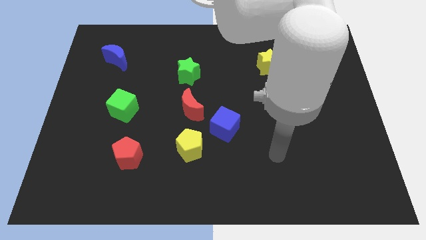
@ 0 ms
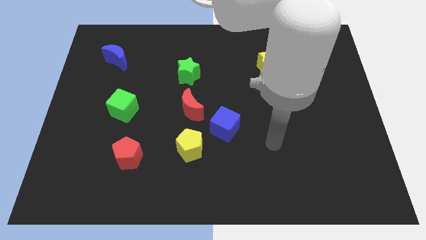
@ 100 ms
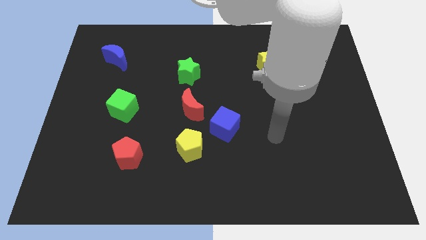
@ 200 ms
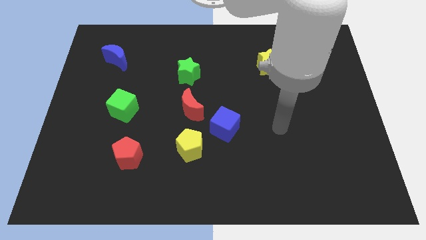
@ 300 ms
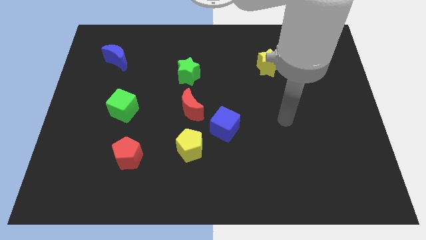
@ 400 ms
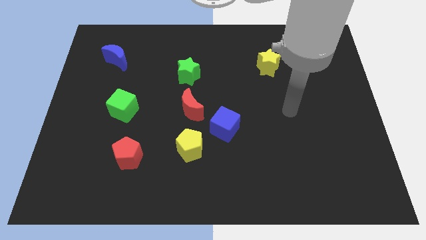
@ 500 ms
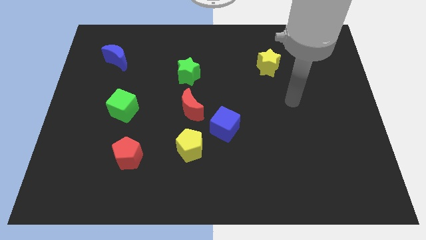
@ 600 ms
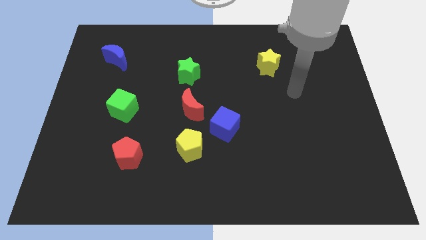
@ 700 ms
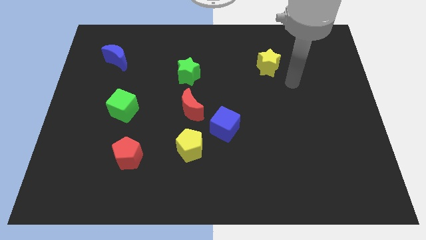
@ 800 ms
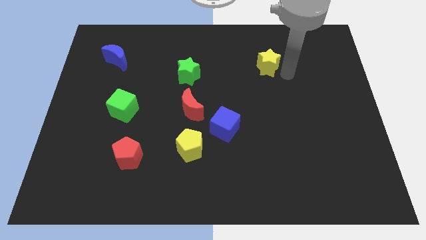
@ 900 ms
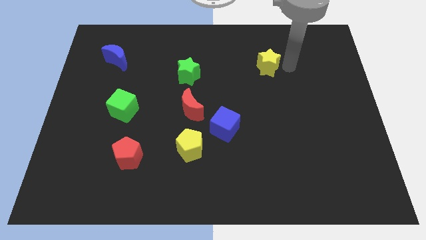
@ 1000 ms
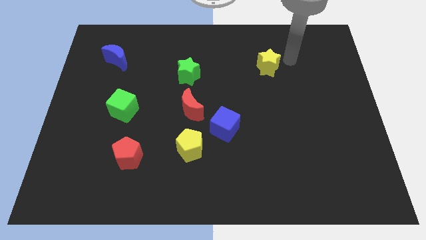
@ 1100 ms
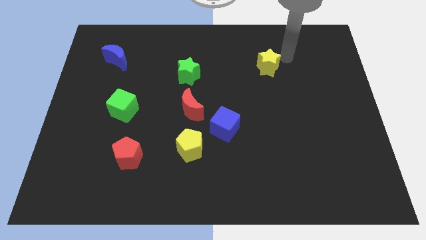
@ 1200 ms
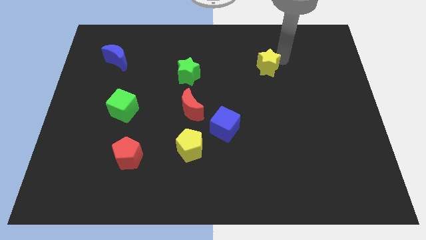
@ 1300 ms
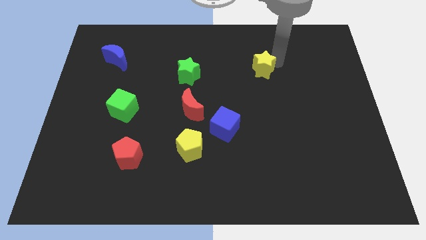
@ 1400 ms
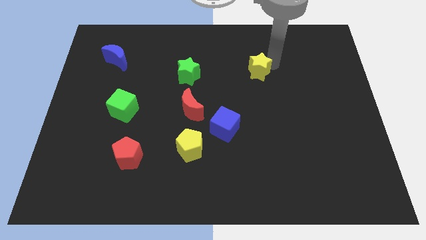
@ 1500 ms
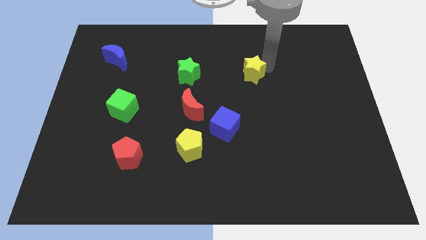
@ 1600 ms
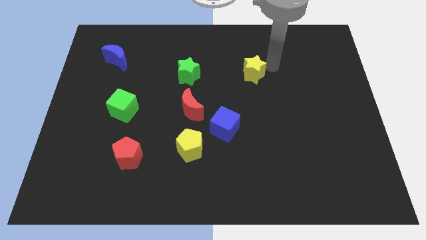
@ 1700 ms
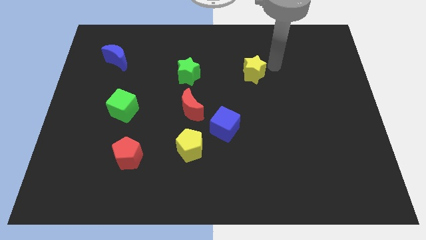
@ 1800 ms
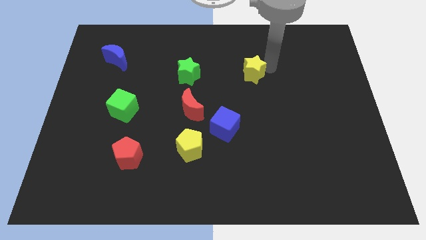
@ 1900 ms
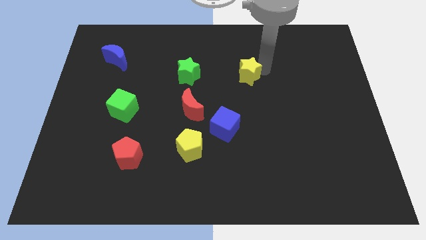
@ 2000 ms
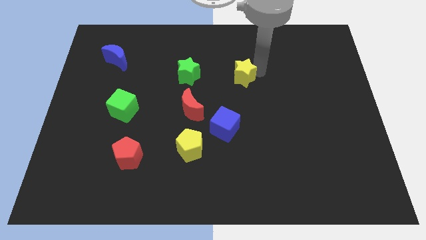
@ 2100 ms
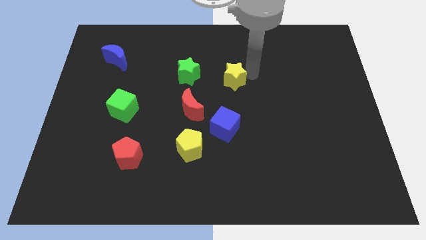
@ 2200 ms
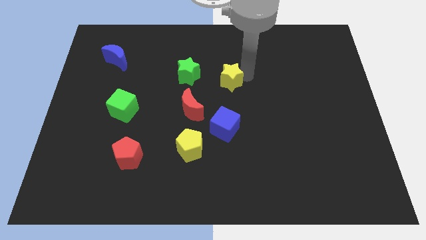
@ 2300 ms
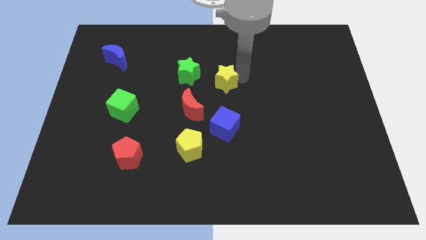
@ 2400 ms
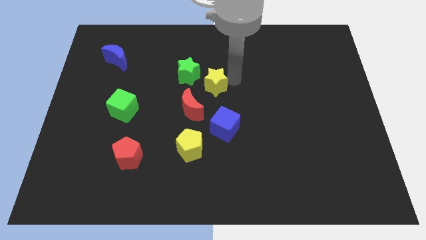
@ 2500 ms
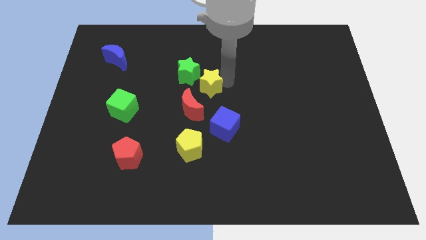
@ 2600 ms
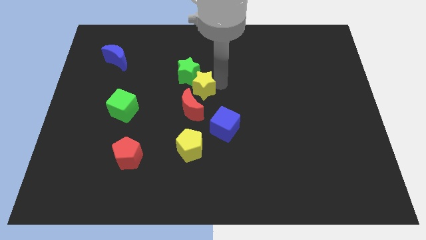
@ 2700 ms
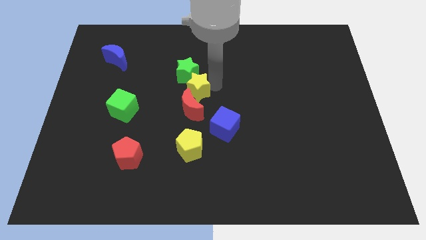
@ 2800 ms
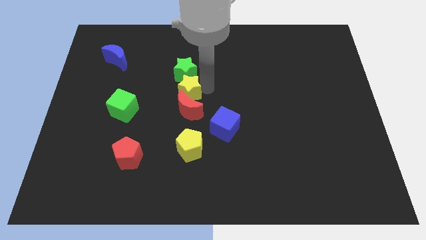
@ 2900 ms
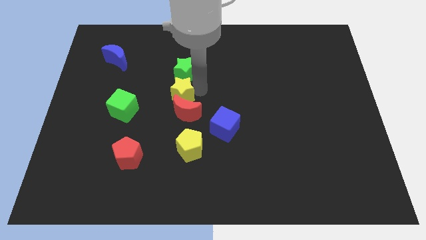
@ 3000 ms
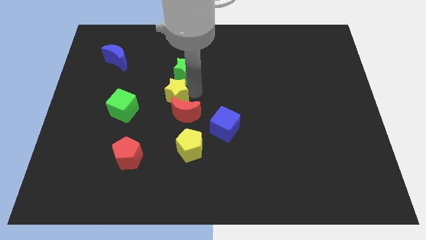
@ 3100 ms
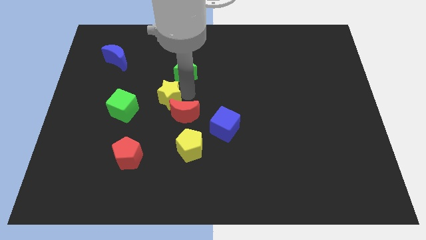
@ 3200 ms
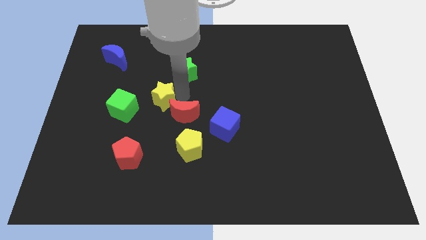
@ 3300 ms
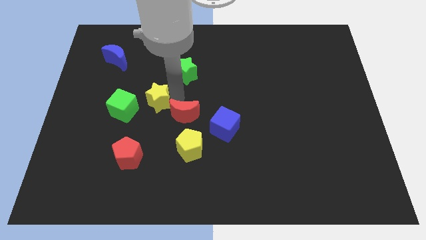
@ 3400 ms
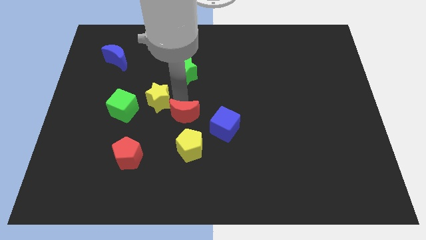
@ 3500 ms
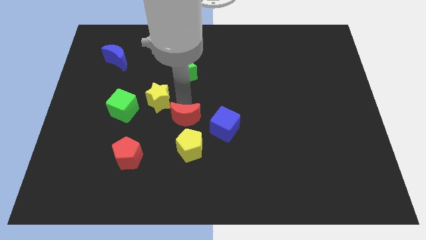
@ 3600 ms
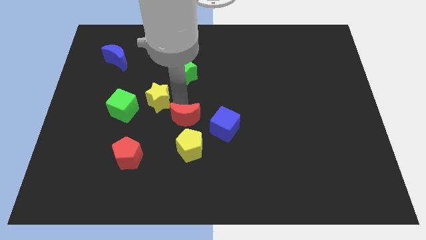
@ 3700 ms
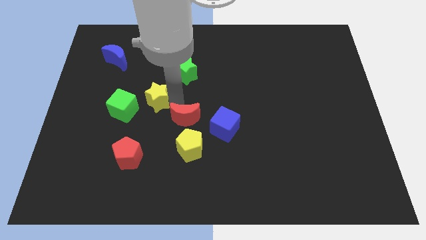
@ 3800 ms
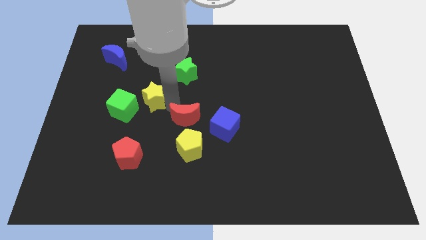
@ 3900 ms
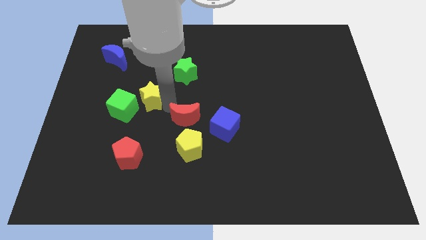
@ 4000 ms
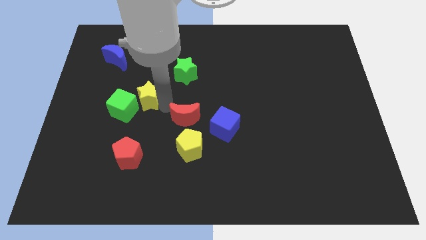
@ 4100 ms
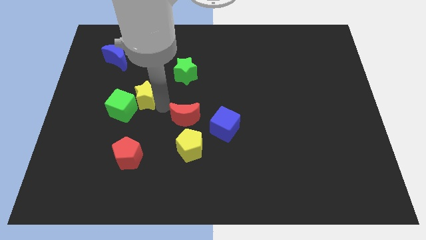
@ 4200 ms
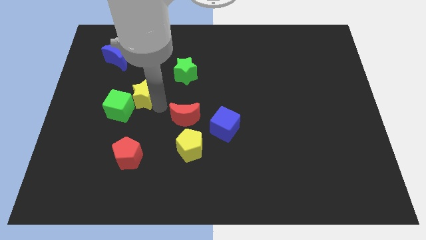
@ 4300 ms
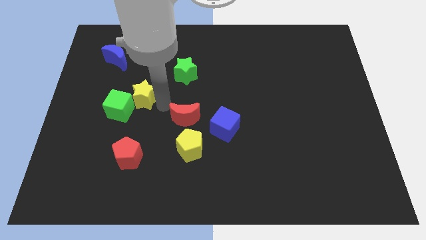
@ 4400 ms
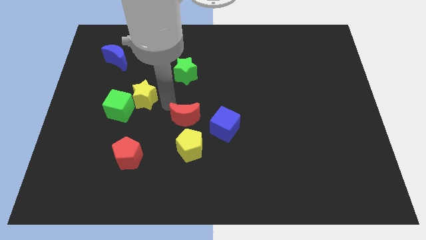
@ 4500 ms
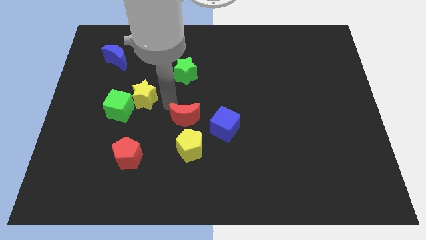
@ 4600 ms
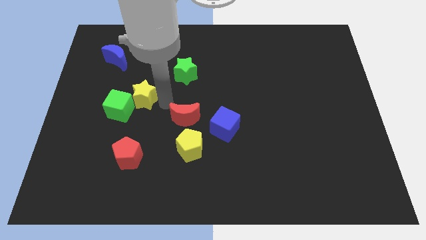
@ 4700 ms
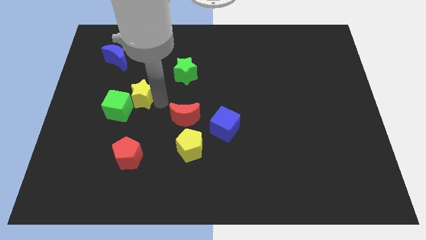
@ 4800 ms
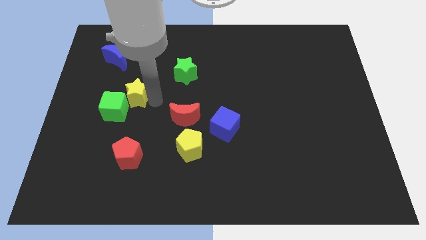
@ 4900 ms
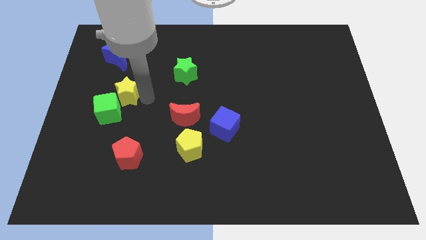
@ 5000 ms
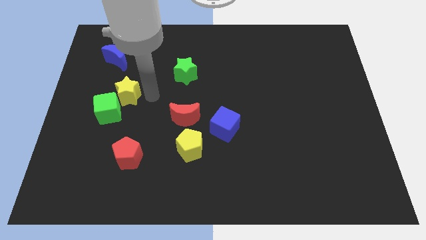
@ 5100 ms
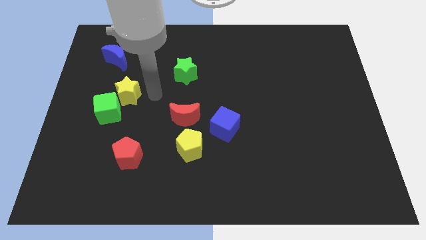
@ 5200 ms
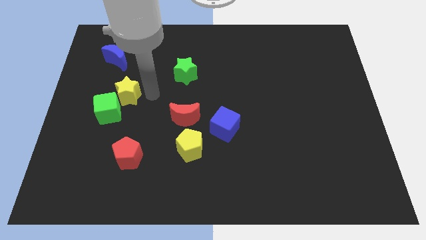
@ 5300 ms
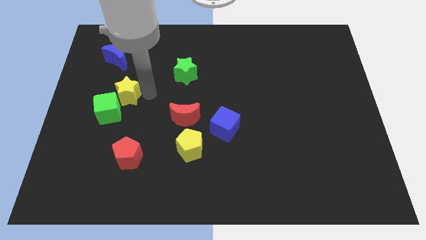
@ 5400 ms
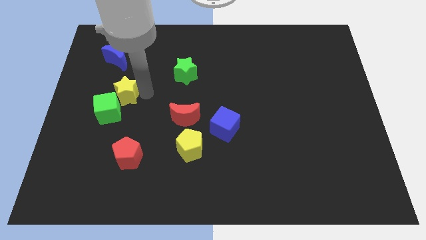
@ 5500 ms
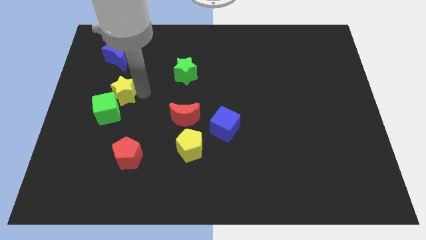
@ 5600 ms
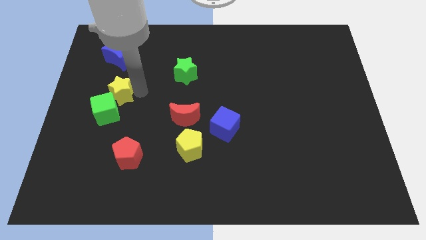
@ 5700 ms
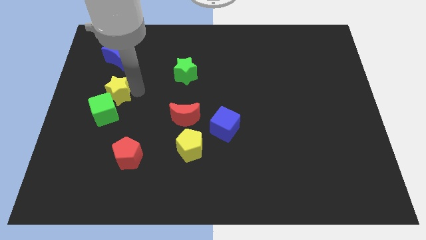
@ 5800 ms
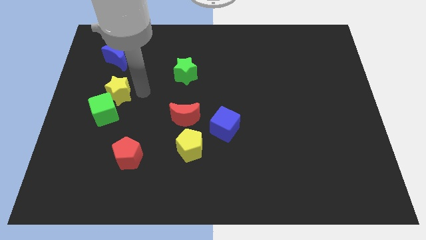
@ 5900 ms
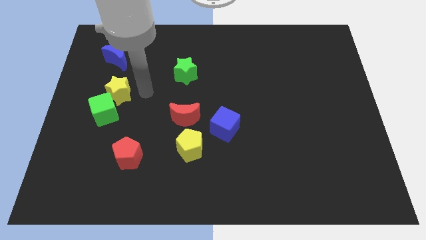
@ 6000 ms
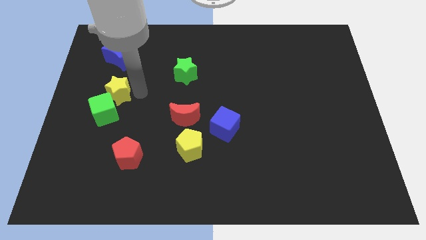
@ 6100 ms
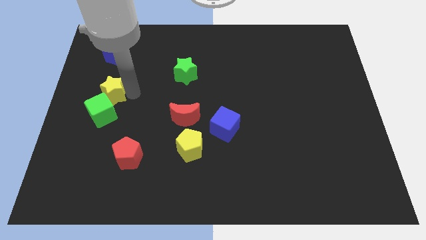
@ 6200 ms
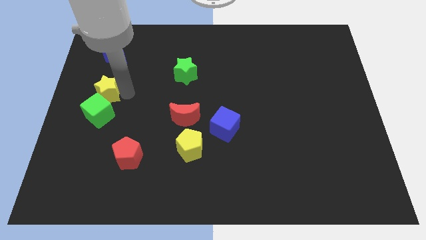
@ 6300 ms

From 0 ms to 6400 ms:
put the yellow star to the left side
